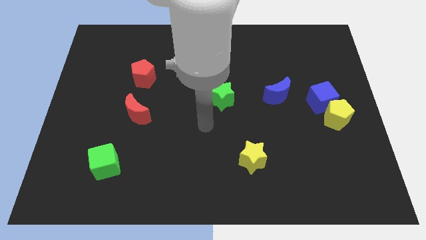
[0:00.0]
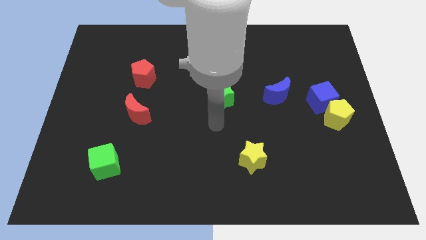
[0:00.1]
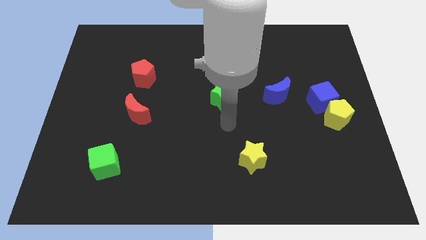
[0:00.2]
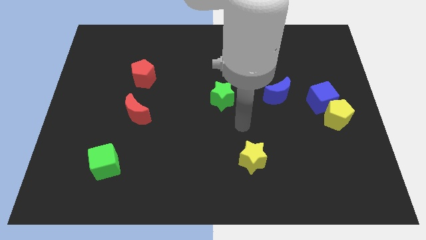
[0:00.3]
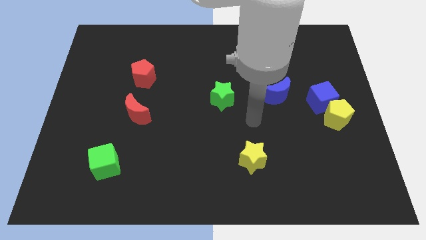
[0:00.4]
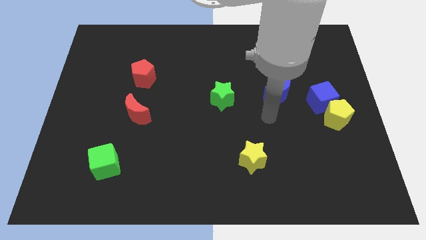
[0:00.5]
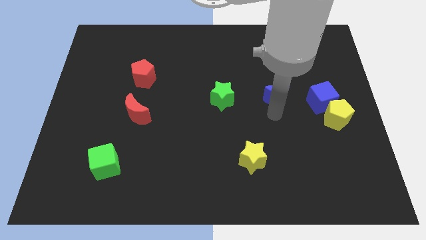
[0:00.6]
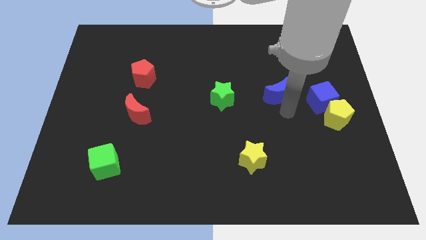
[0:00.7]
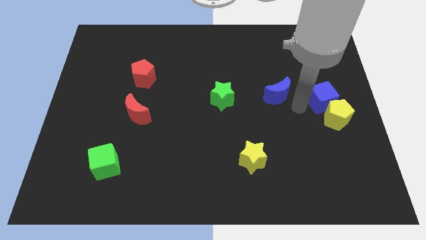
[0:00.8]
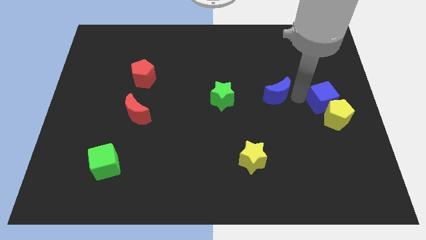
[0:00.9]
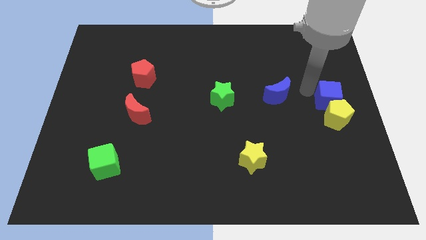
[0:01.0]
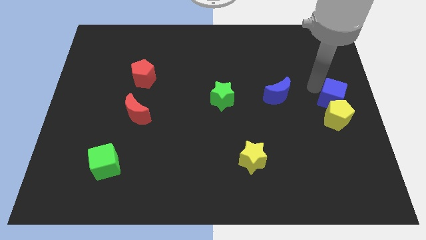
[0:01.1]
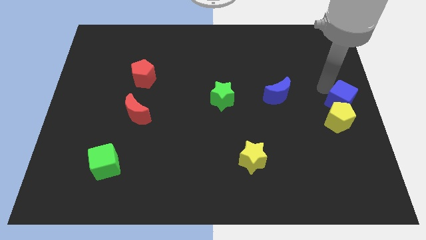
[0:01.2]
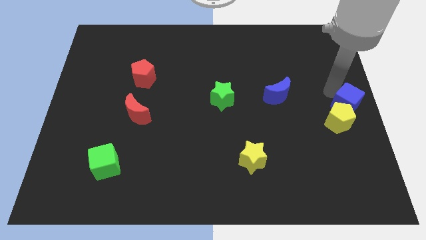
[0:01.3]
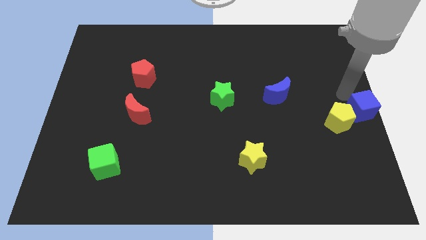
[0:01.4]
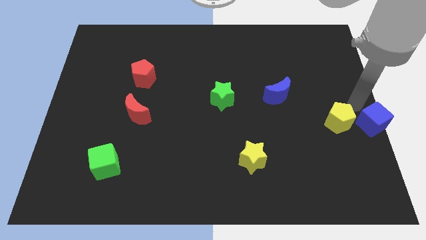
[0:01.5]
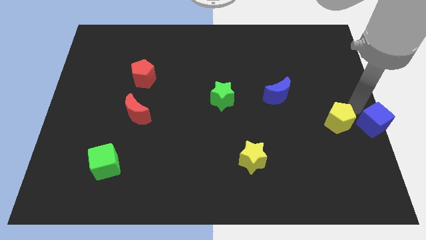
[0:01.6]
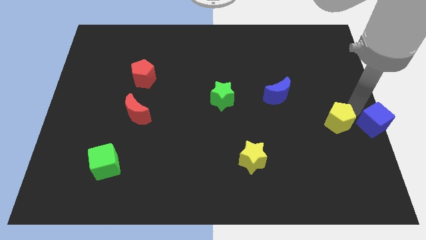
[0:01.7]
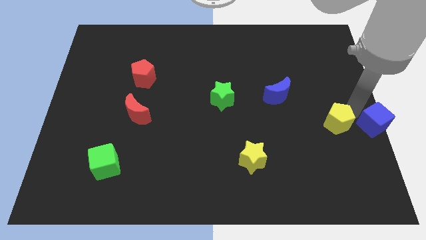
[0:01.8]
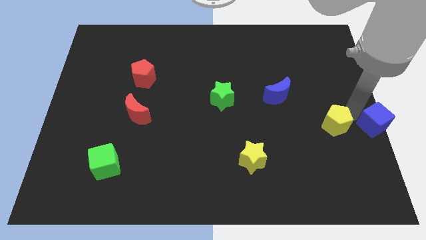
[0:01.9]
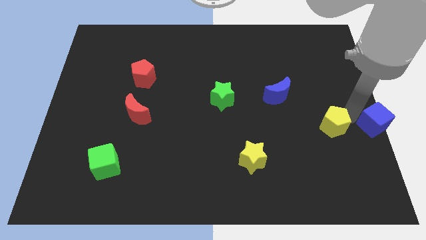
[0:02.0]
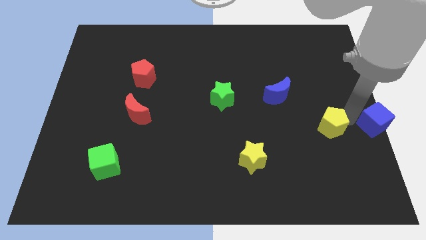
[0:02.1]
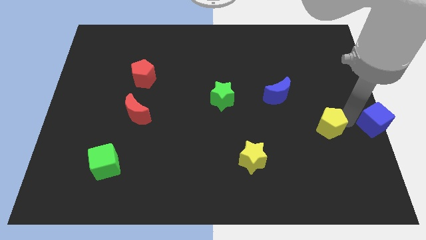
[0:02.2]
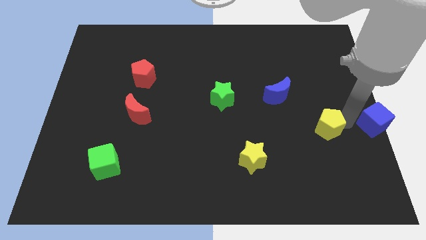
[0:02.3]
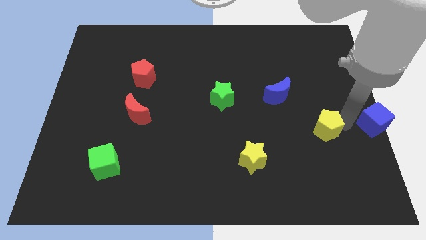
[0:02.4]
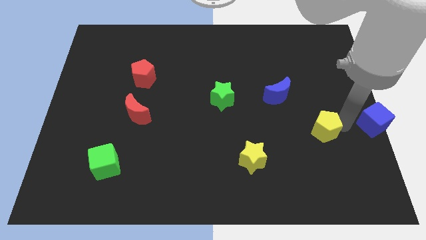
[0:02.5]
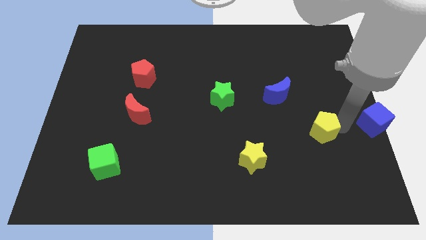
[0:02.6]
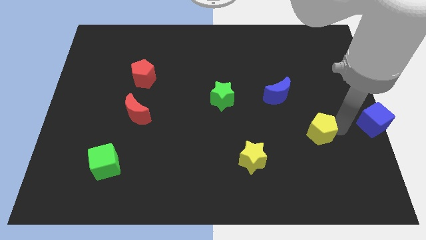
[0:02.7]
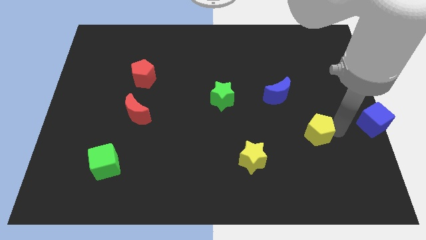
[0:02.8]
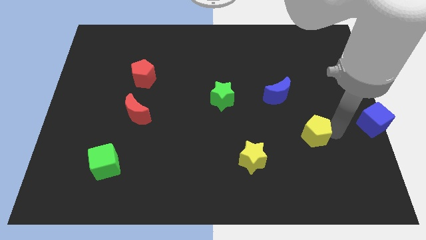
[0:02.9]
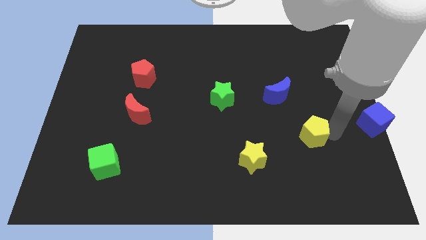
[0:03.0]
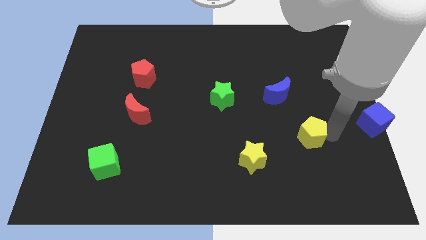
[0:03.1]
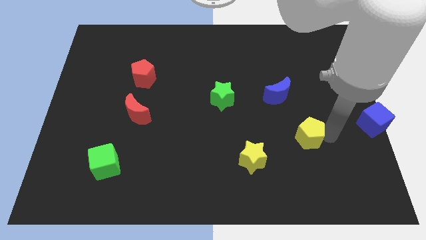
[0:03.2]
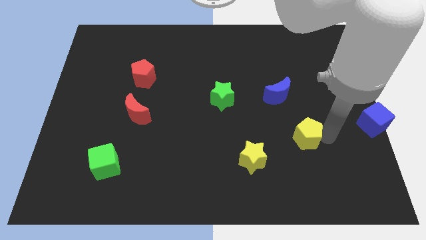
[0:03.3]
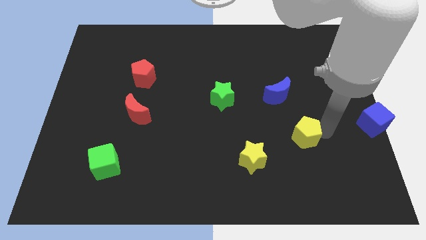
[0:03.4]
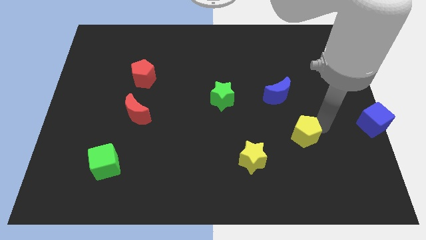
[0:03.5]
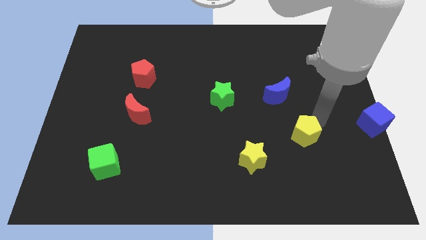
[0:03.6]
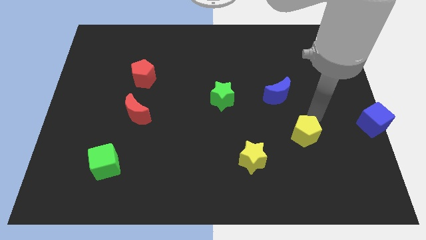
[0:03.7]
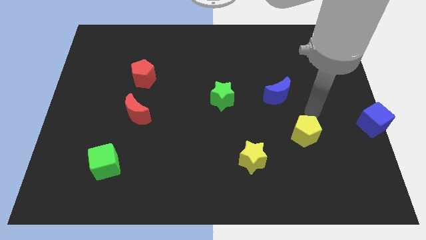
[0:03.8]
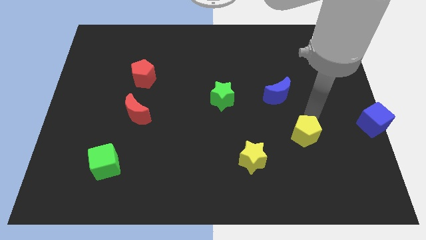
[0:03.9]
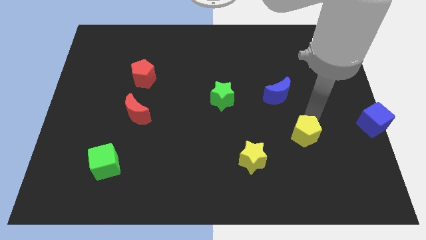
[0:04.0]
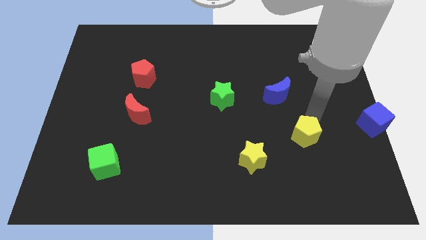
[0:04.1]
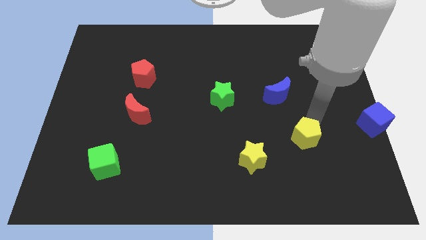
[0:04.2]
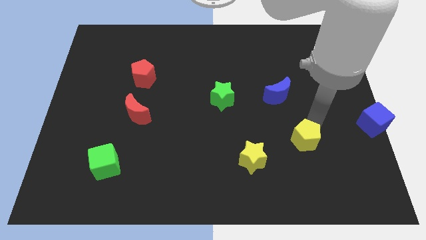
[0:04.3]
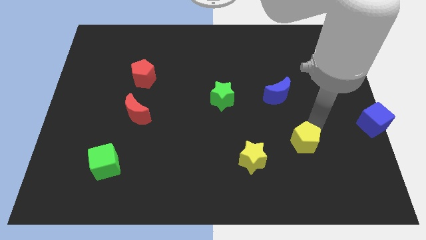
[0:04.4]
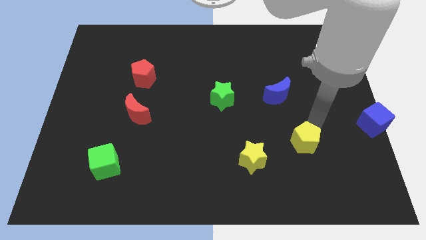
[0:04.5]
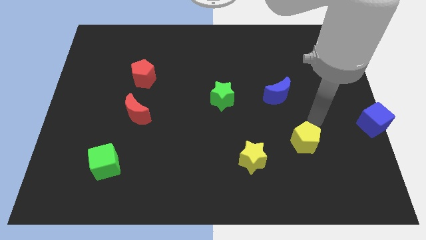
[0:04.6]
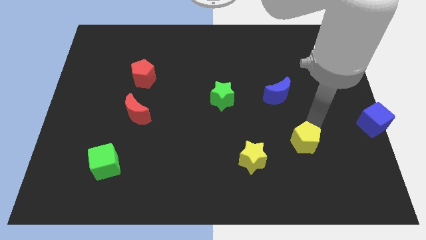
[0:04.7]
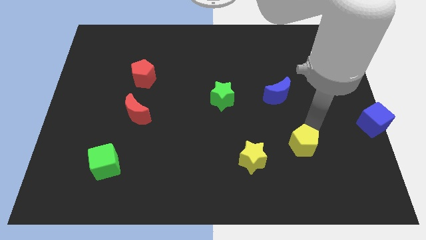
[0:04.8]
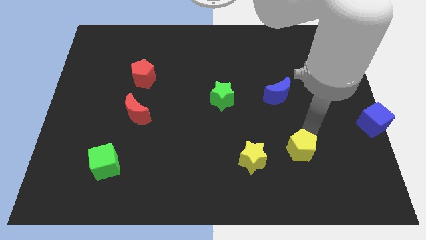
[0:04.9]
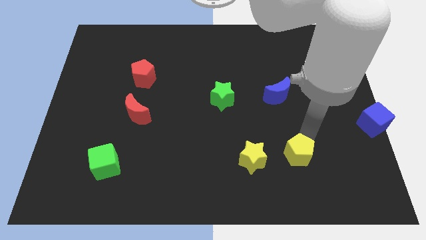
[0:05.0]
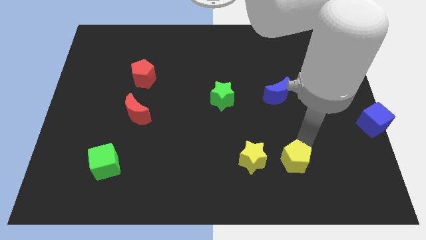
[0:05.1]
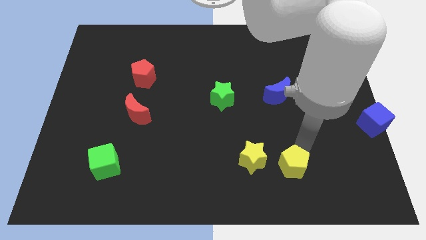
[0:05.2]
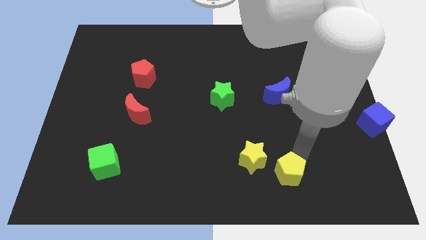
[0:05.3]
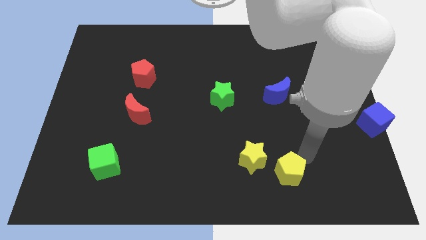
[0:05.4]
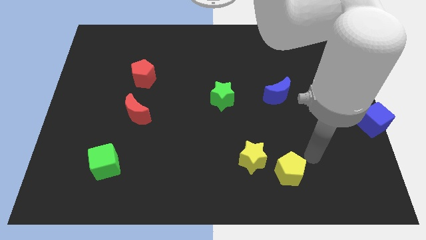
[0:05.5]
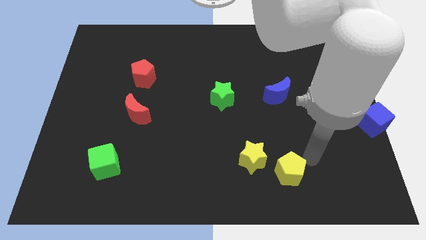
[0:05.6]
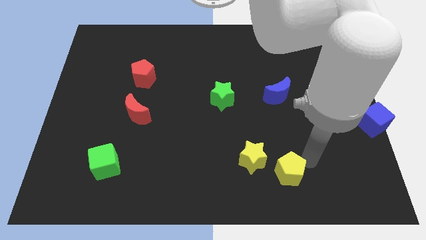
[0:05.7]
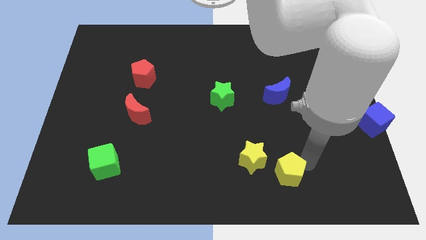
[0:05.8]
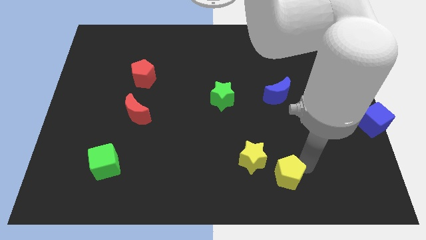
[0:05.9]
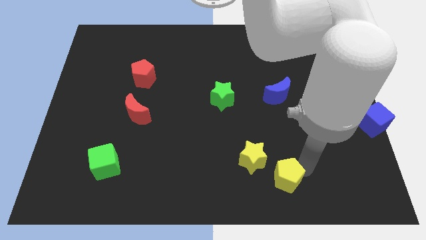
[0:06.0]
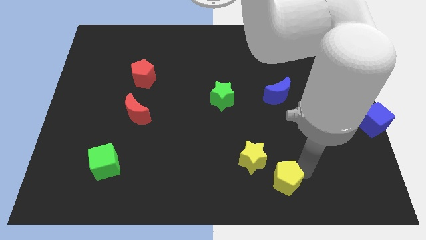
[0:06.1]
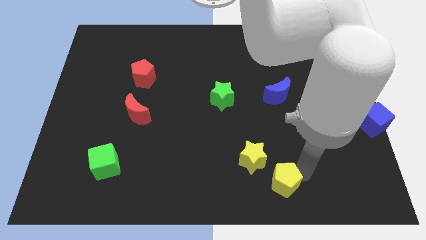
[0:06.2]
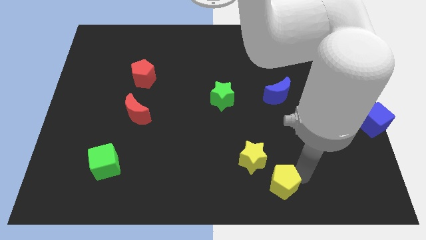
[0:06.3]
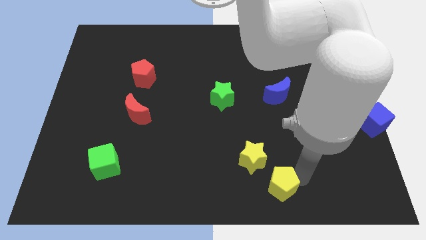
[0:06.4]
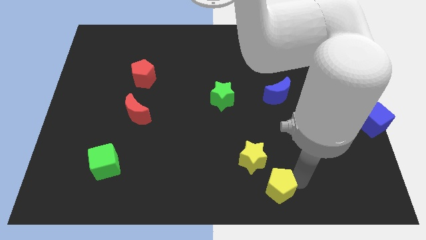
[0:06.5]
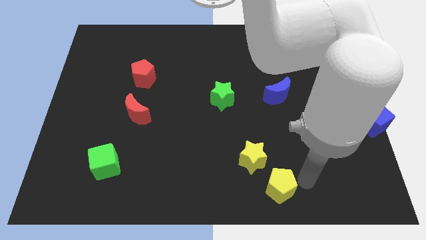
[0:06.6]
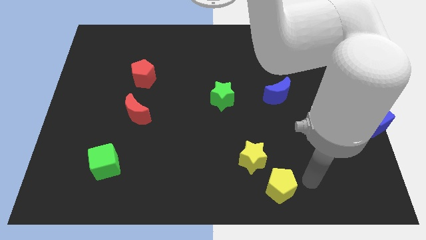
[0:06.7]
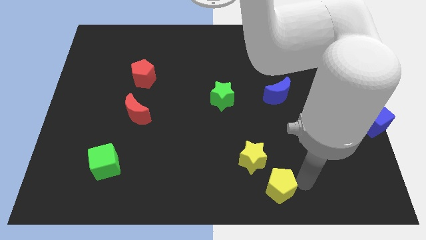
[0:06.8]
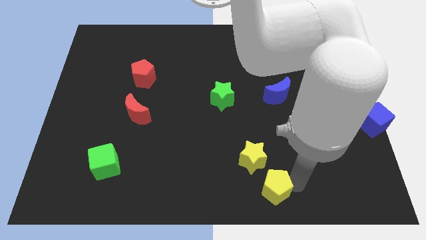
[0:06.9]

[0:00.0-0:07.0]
slide the yellow pentagon to the bottom
